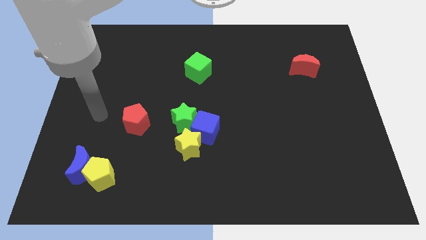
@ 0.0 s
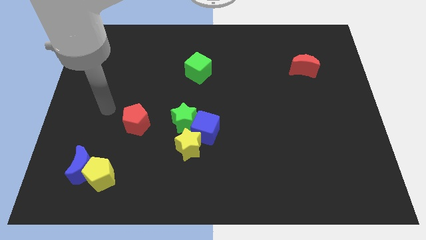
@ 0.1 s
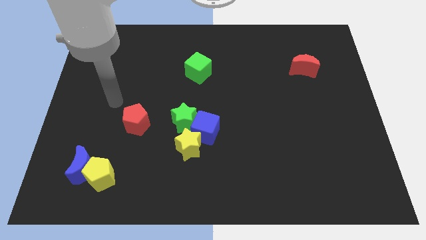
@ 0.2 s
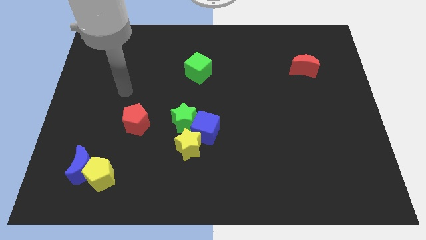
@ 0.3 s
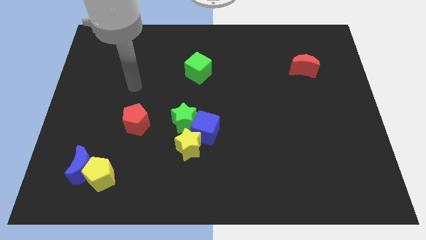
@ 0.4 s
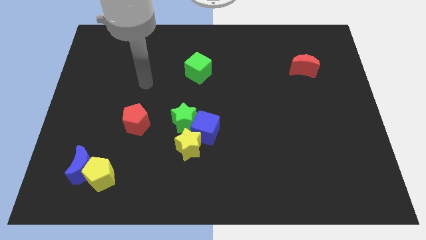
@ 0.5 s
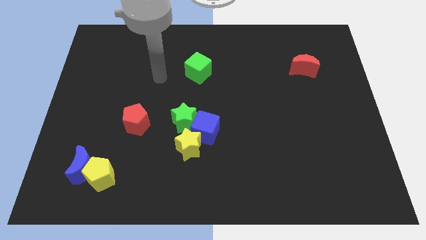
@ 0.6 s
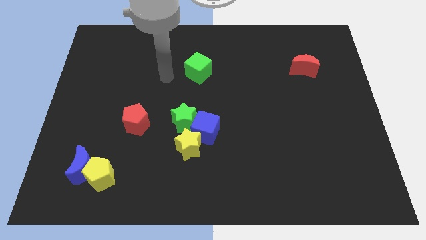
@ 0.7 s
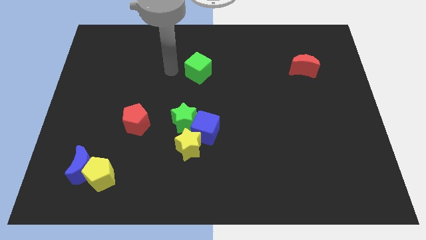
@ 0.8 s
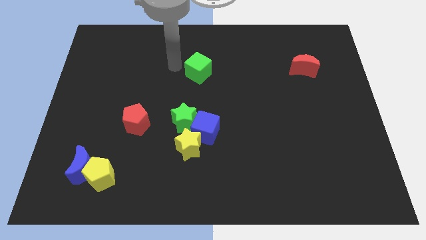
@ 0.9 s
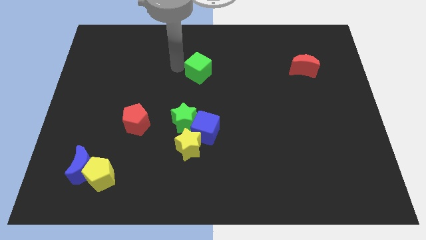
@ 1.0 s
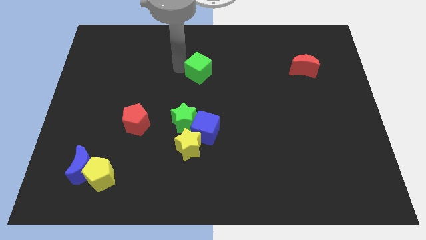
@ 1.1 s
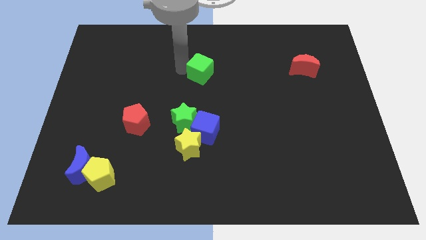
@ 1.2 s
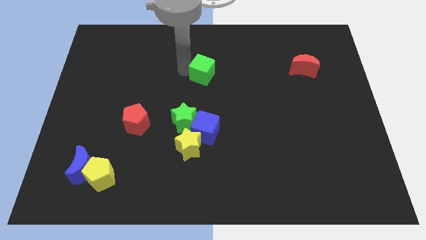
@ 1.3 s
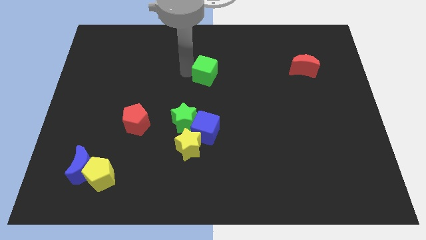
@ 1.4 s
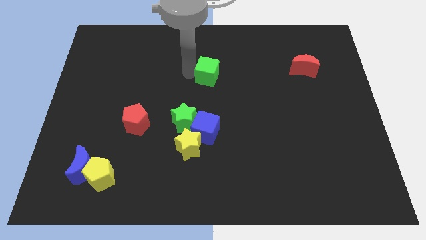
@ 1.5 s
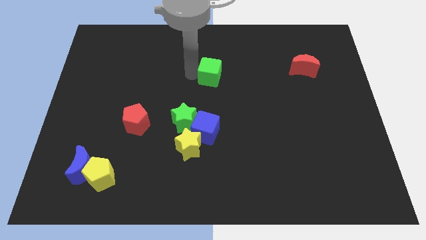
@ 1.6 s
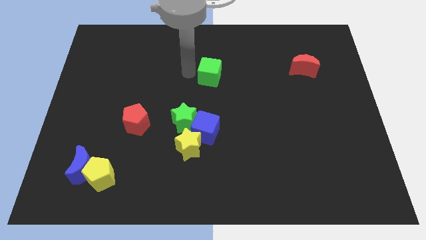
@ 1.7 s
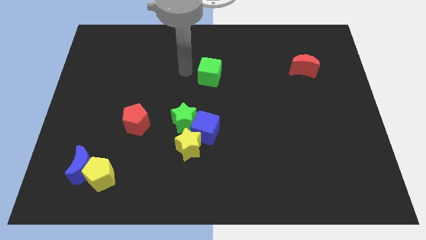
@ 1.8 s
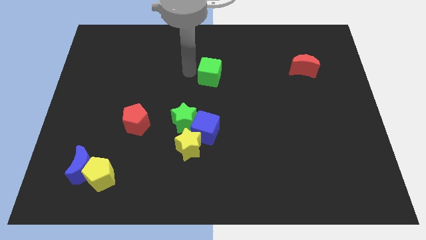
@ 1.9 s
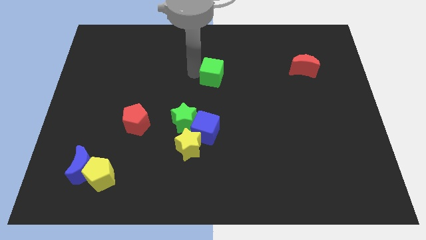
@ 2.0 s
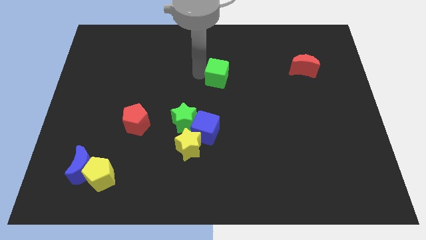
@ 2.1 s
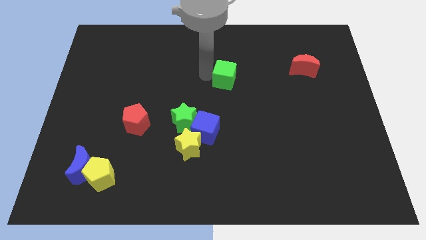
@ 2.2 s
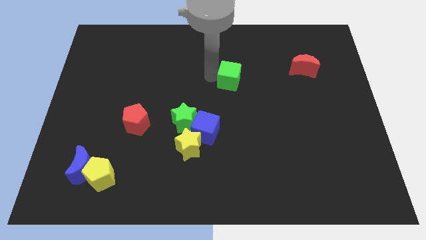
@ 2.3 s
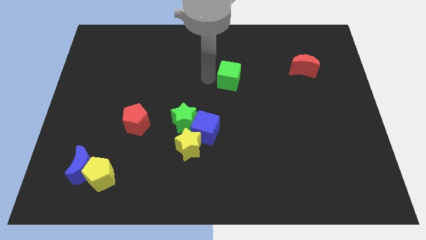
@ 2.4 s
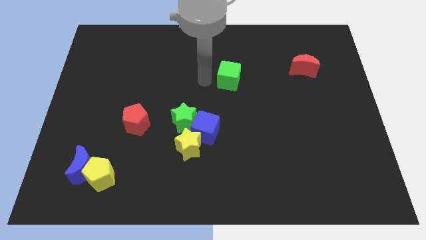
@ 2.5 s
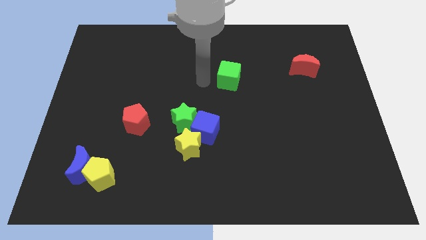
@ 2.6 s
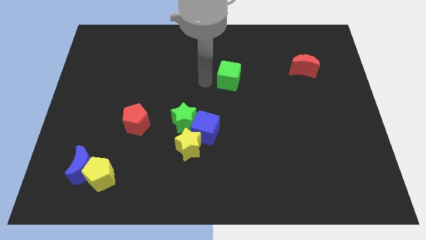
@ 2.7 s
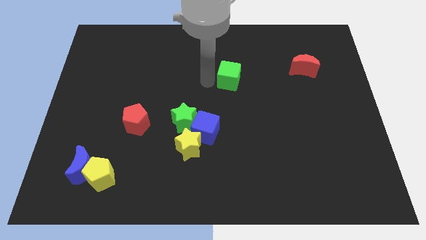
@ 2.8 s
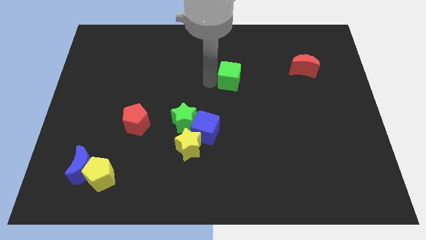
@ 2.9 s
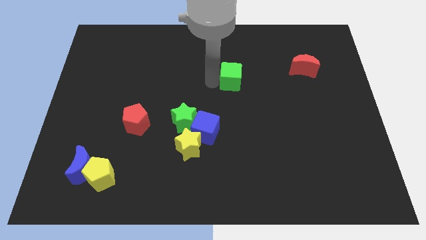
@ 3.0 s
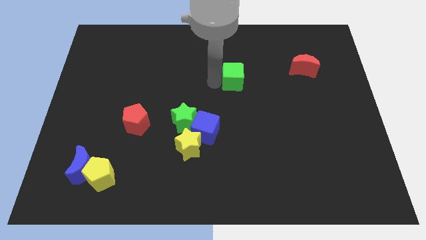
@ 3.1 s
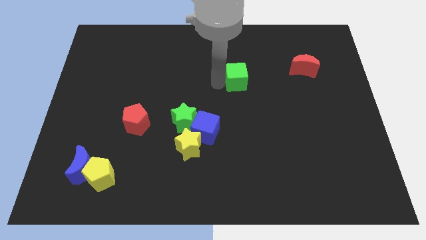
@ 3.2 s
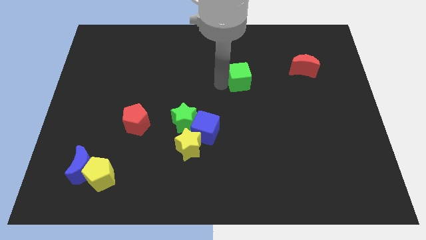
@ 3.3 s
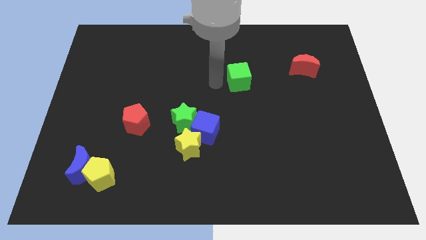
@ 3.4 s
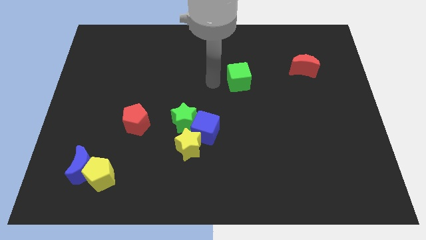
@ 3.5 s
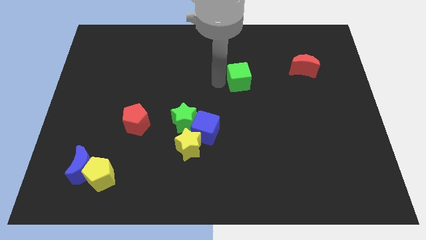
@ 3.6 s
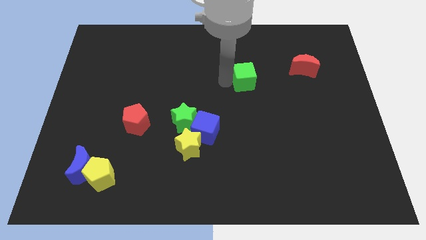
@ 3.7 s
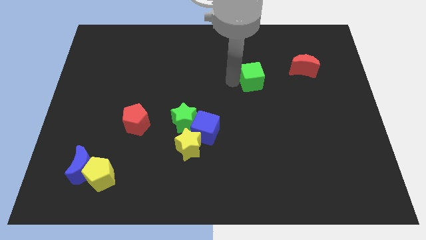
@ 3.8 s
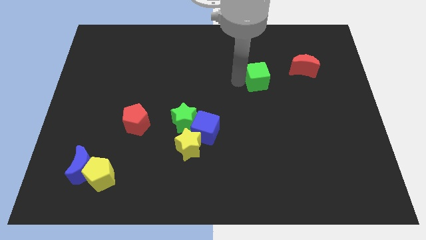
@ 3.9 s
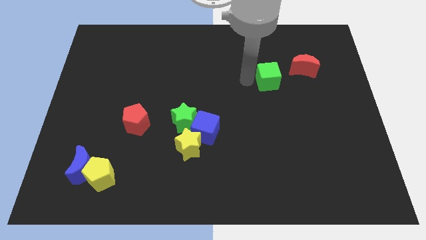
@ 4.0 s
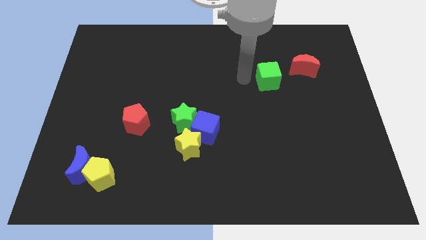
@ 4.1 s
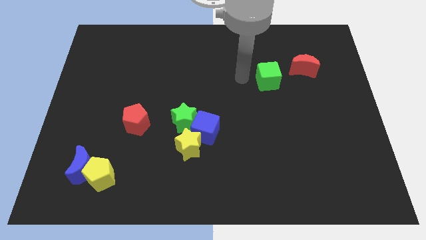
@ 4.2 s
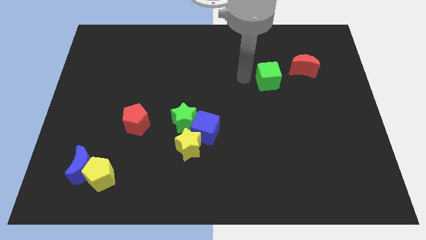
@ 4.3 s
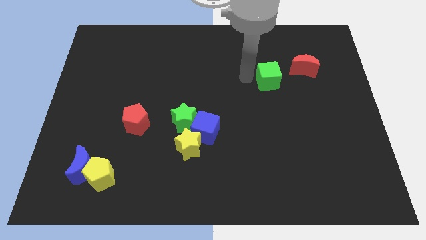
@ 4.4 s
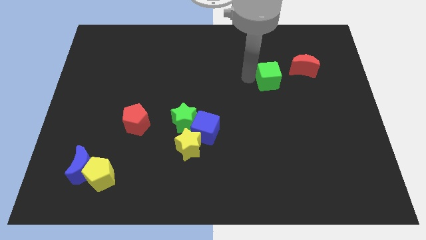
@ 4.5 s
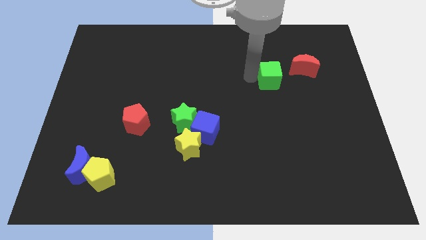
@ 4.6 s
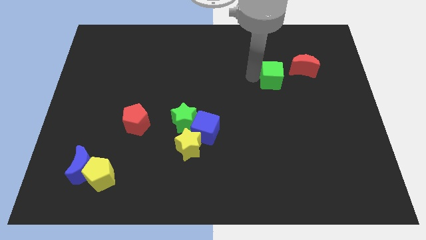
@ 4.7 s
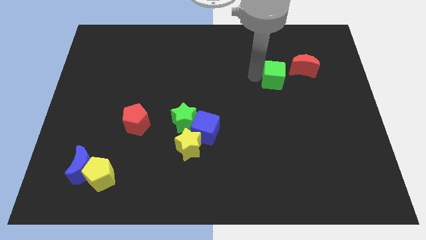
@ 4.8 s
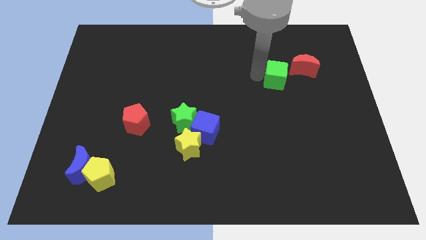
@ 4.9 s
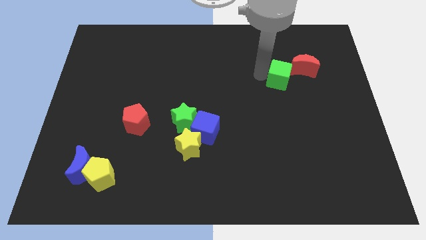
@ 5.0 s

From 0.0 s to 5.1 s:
move the green cube right

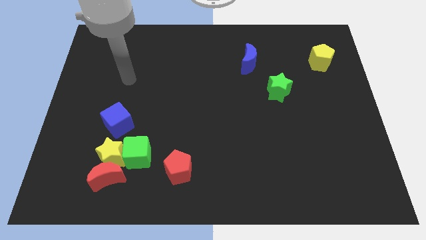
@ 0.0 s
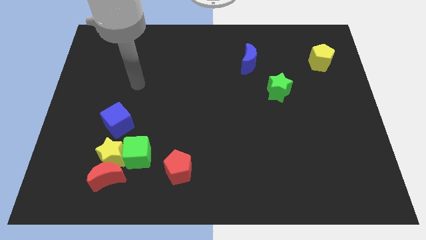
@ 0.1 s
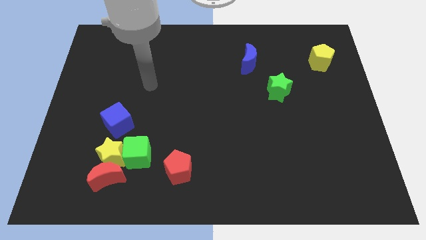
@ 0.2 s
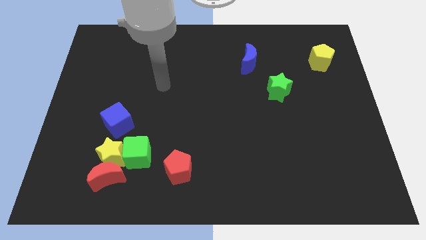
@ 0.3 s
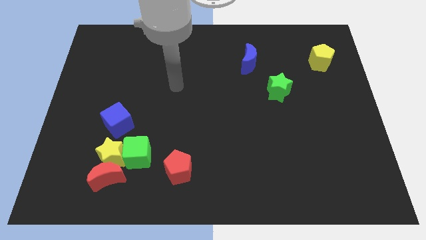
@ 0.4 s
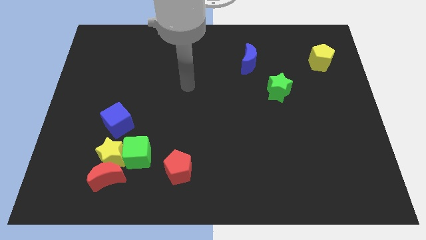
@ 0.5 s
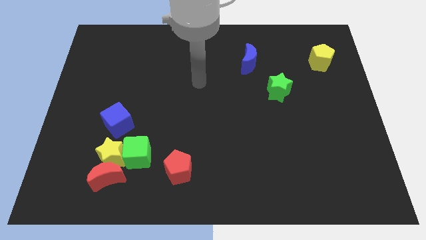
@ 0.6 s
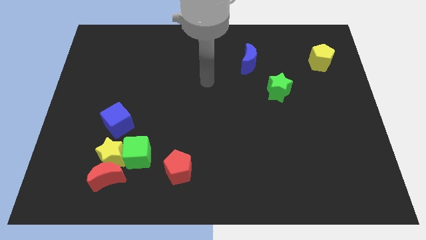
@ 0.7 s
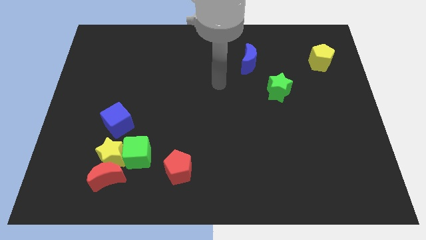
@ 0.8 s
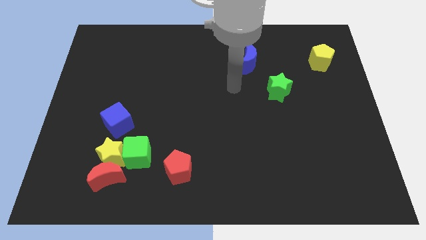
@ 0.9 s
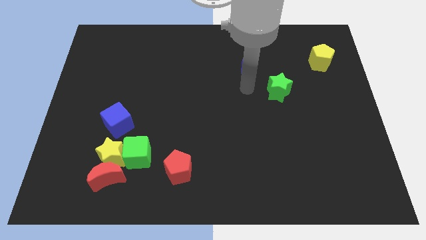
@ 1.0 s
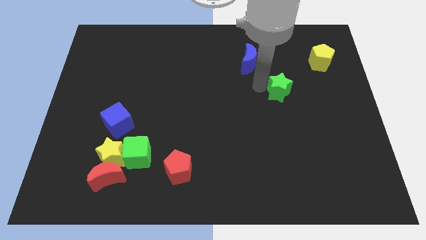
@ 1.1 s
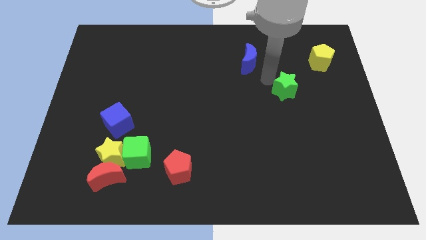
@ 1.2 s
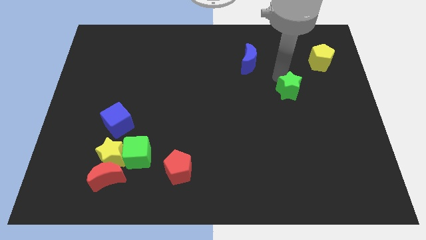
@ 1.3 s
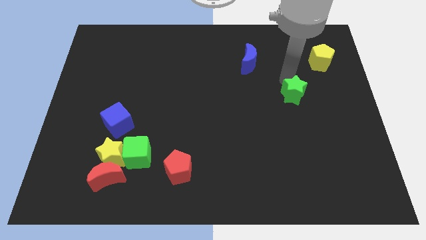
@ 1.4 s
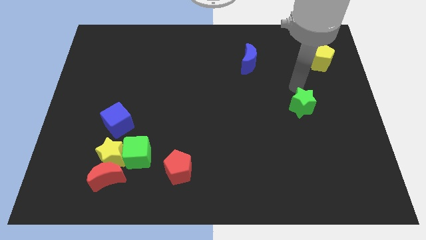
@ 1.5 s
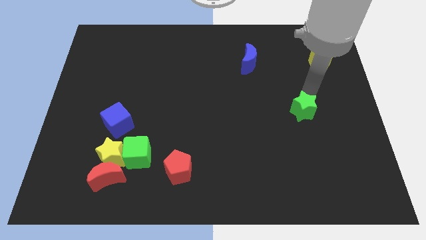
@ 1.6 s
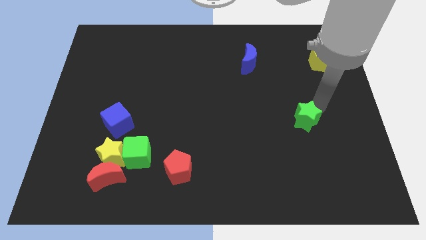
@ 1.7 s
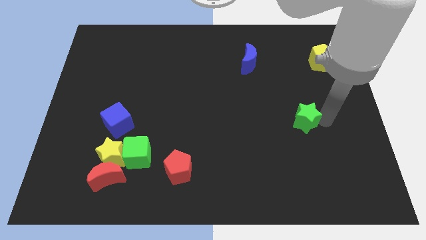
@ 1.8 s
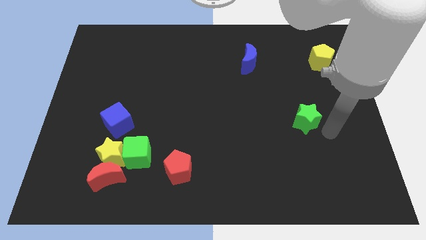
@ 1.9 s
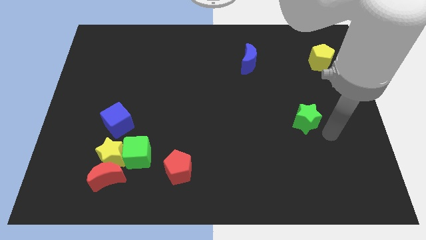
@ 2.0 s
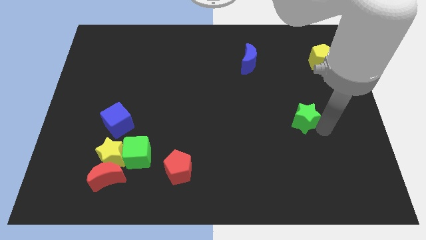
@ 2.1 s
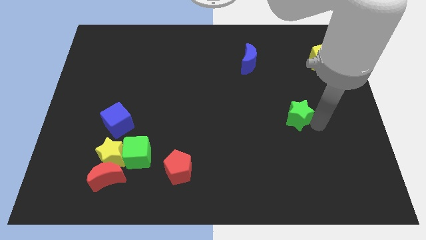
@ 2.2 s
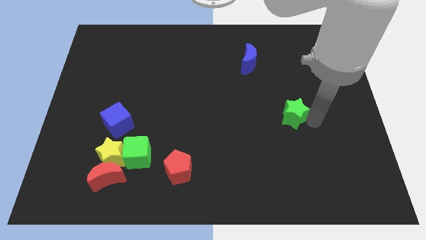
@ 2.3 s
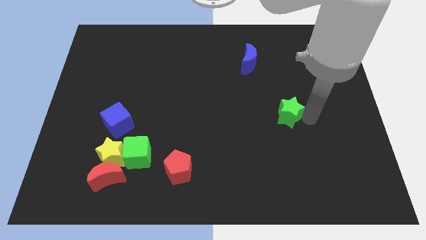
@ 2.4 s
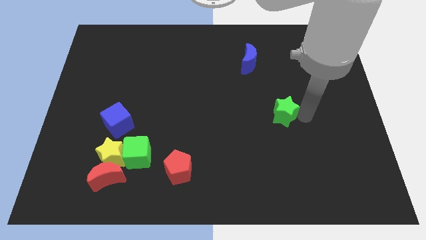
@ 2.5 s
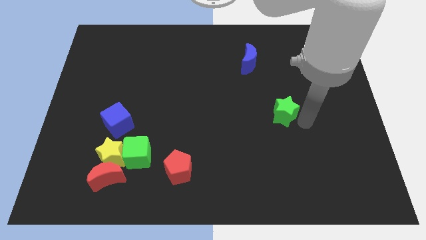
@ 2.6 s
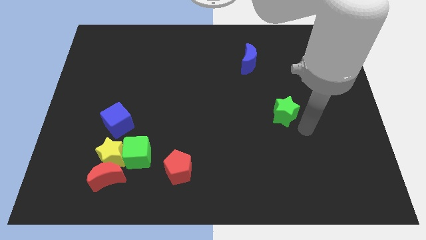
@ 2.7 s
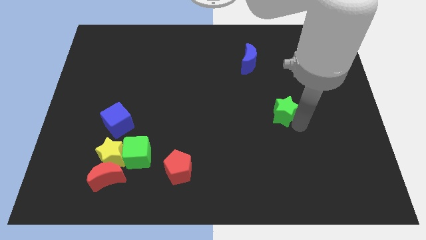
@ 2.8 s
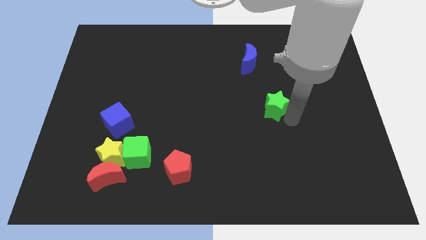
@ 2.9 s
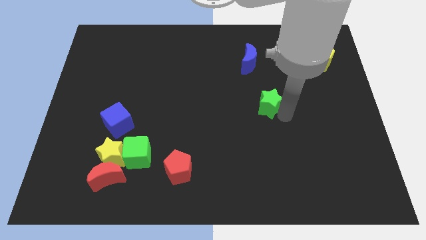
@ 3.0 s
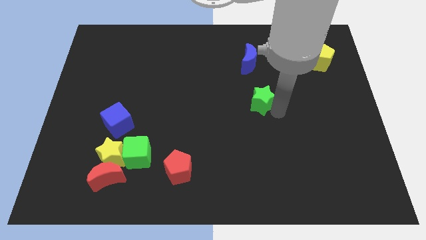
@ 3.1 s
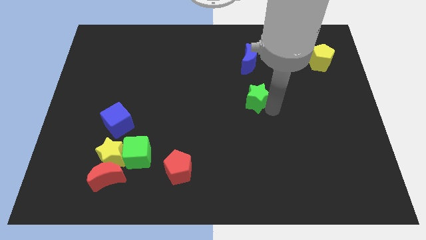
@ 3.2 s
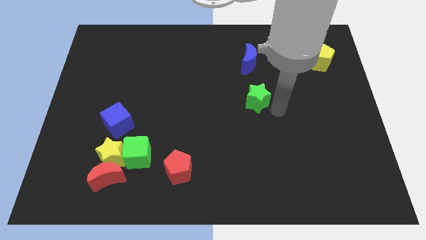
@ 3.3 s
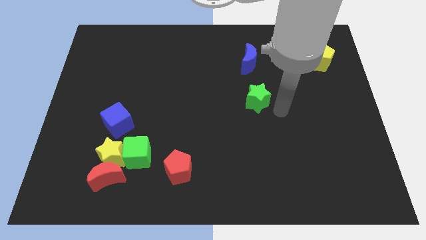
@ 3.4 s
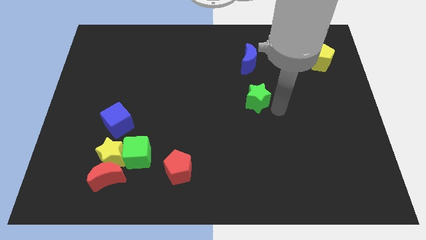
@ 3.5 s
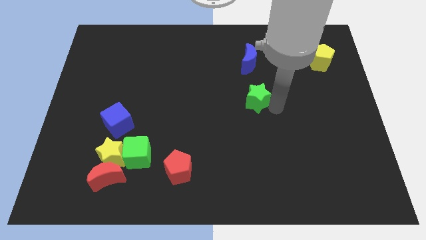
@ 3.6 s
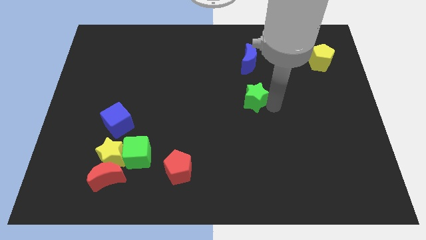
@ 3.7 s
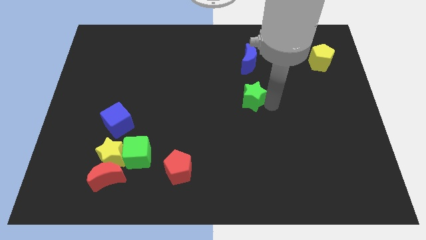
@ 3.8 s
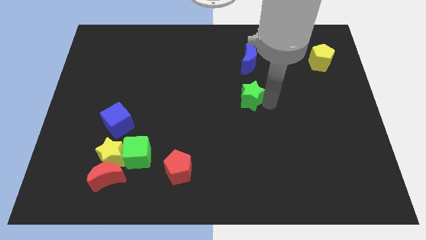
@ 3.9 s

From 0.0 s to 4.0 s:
push the green star to the left slightly
